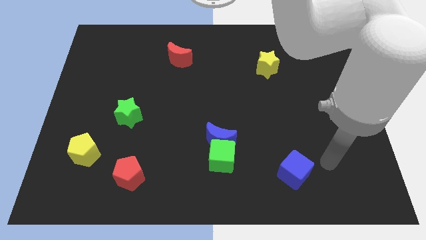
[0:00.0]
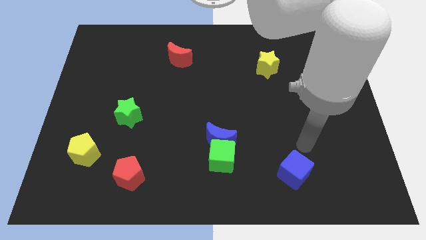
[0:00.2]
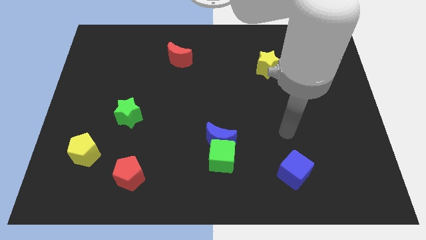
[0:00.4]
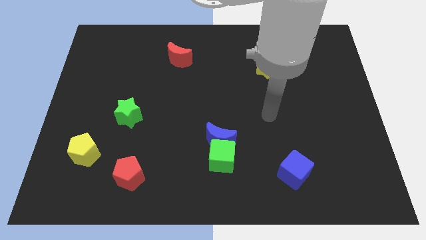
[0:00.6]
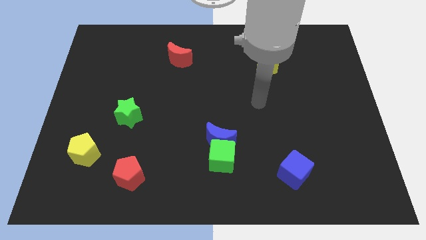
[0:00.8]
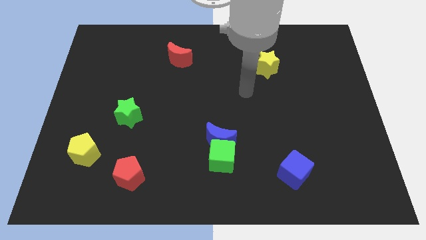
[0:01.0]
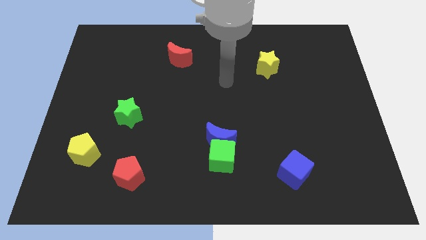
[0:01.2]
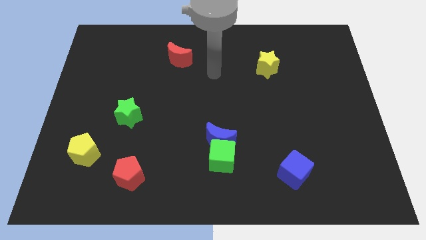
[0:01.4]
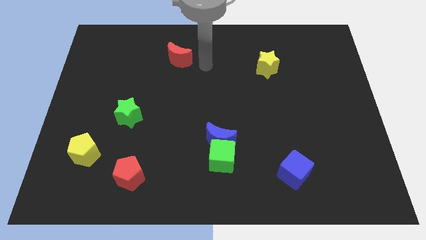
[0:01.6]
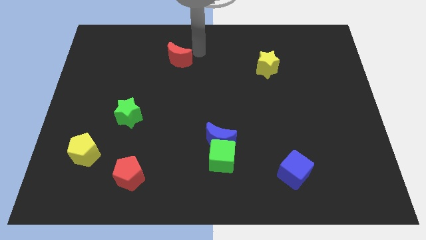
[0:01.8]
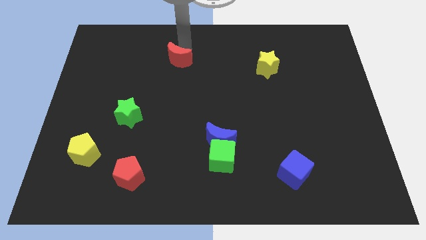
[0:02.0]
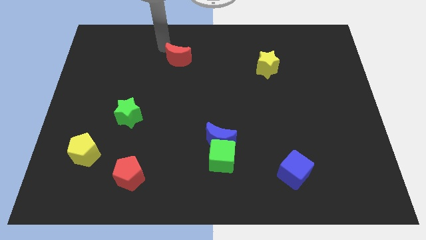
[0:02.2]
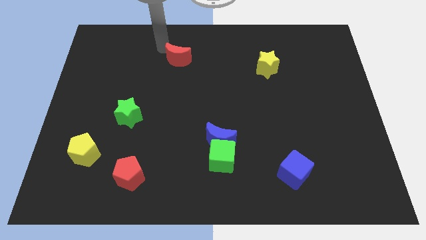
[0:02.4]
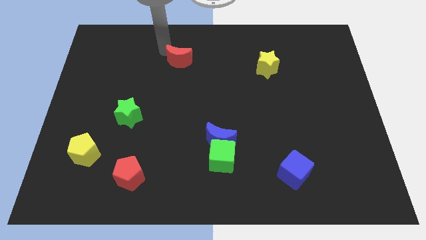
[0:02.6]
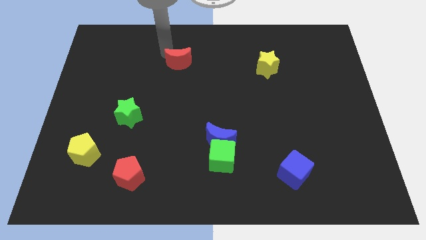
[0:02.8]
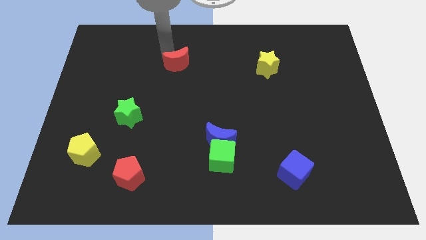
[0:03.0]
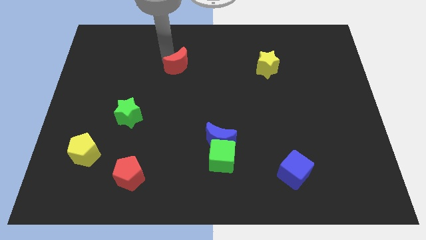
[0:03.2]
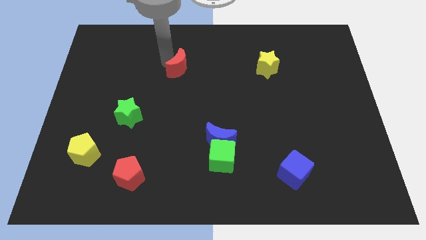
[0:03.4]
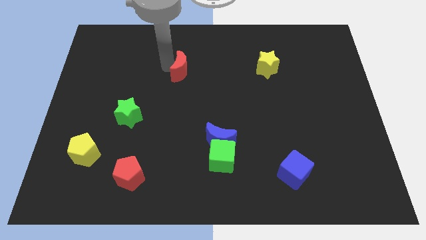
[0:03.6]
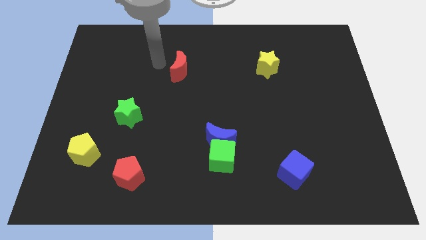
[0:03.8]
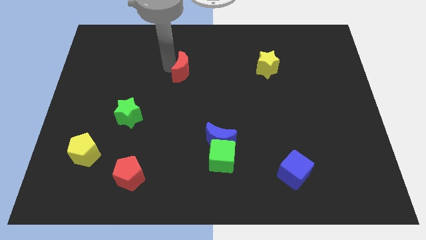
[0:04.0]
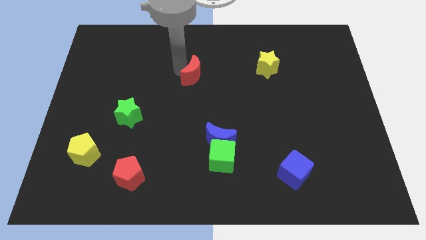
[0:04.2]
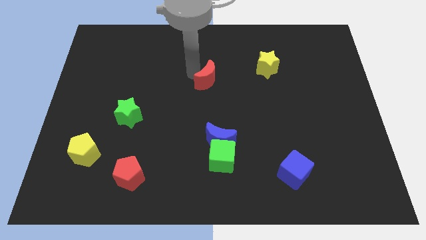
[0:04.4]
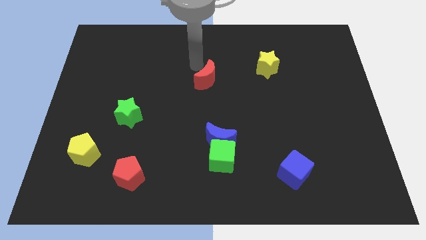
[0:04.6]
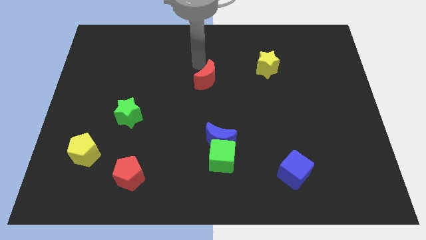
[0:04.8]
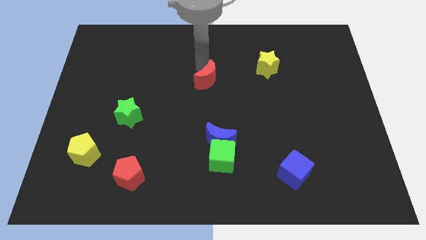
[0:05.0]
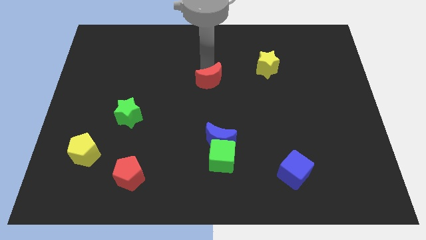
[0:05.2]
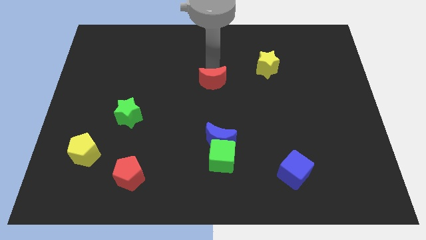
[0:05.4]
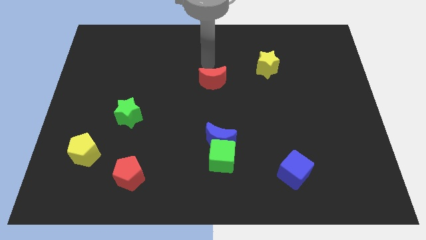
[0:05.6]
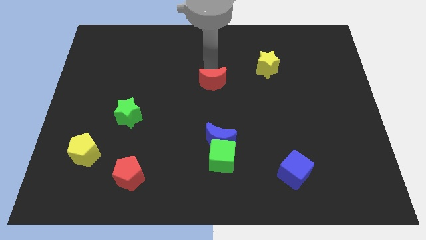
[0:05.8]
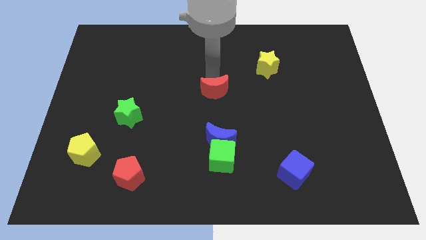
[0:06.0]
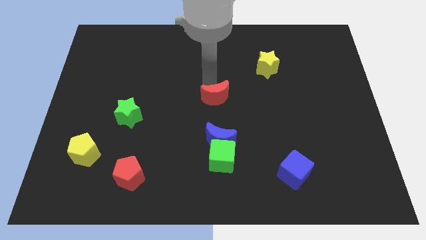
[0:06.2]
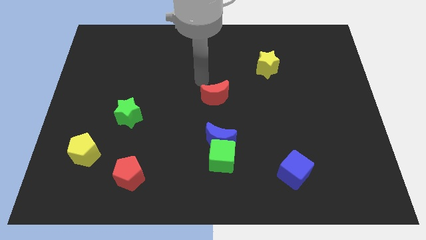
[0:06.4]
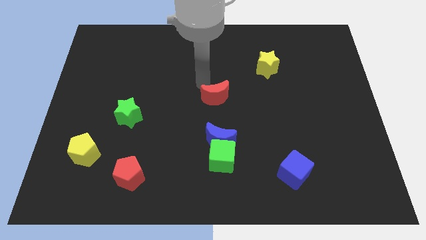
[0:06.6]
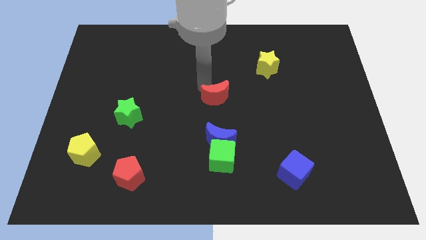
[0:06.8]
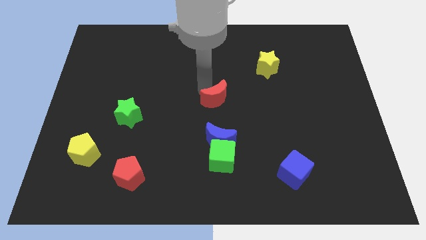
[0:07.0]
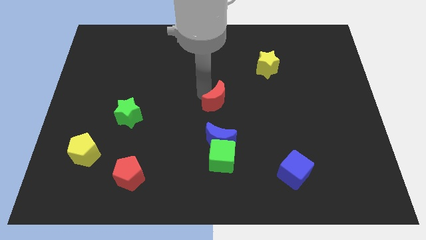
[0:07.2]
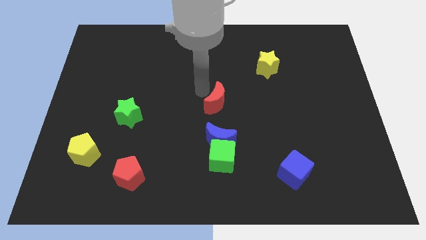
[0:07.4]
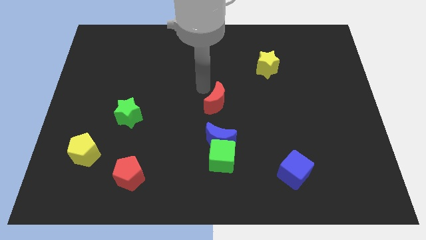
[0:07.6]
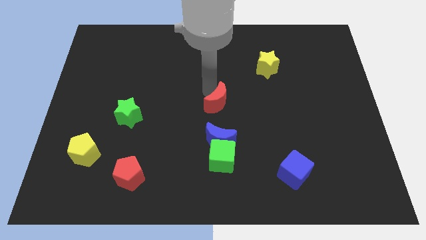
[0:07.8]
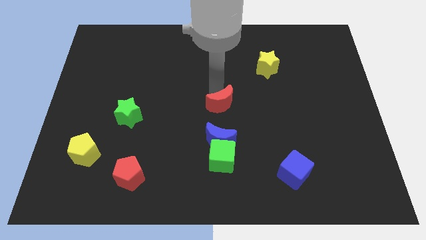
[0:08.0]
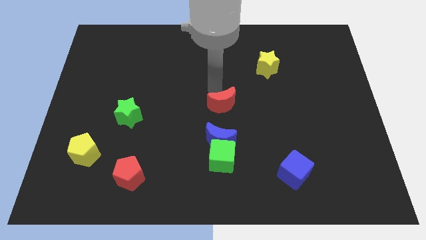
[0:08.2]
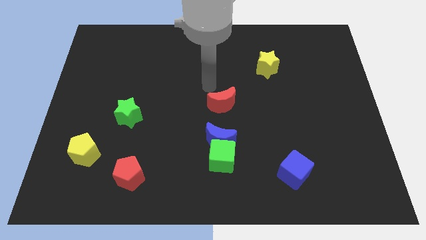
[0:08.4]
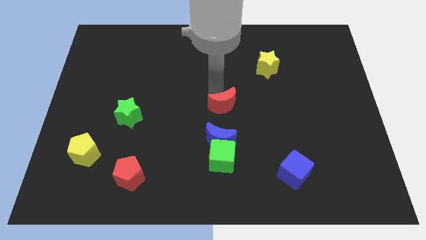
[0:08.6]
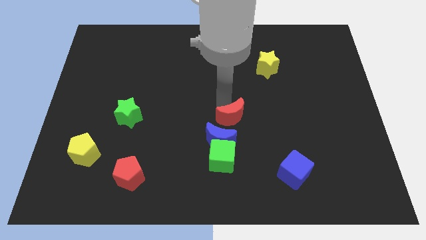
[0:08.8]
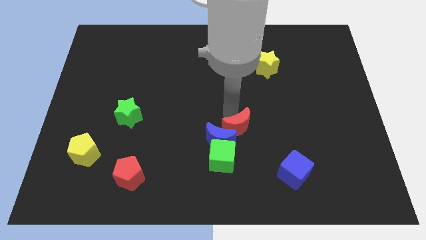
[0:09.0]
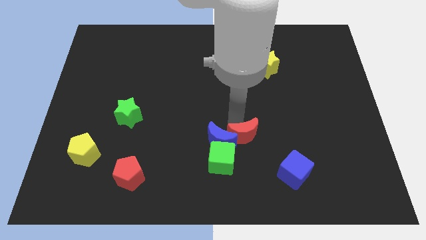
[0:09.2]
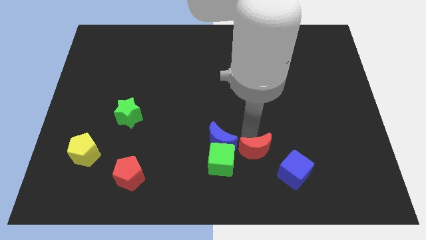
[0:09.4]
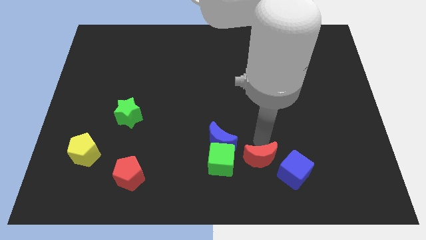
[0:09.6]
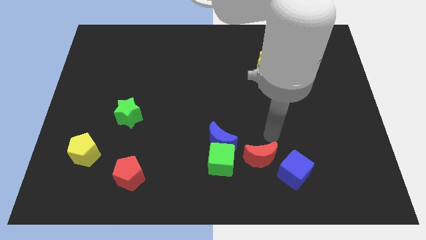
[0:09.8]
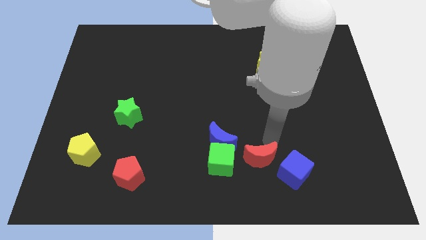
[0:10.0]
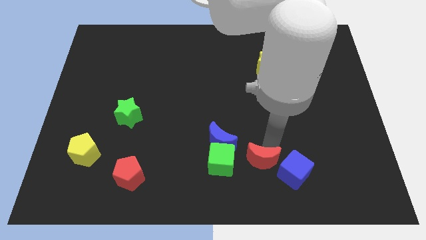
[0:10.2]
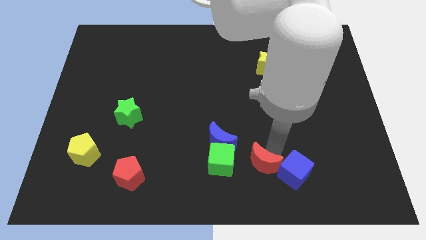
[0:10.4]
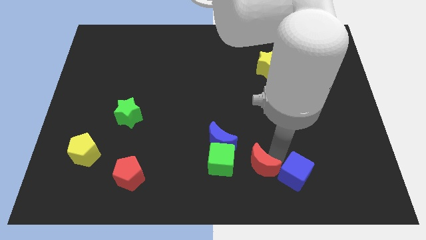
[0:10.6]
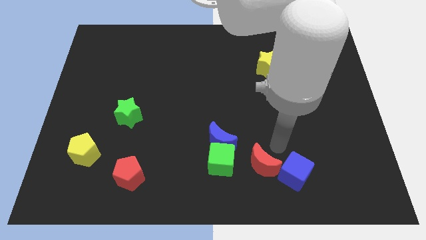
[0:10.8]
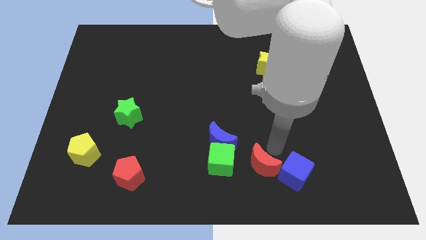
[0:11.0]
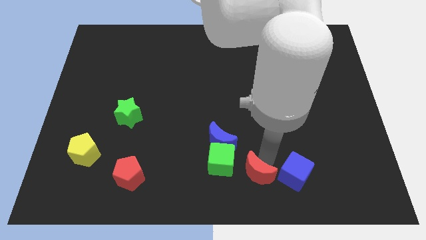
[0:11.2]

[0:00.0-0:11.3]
put the red moon to the bottom right of the green cube

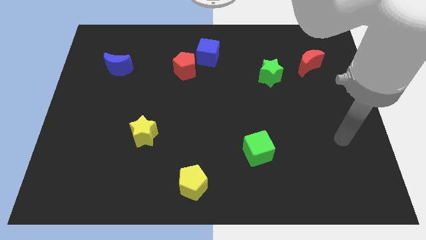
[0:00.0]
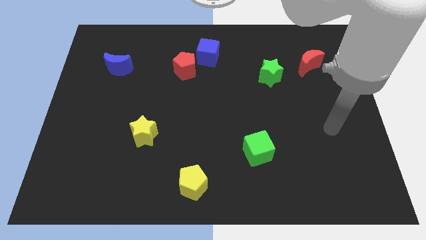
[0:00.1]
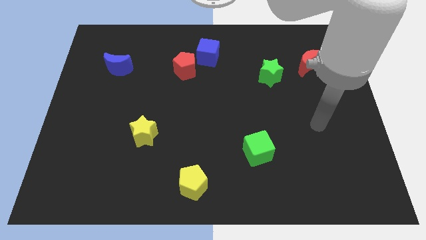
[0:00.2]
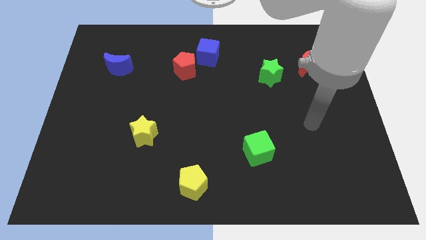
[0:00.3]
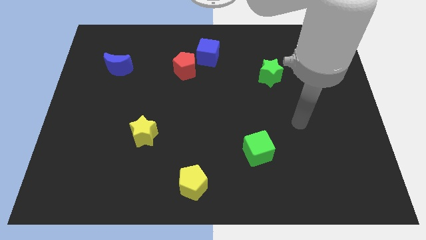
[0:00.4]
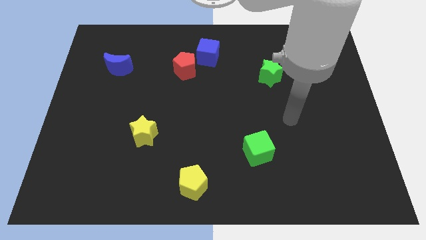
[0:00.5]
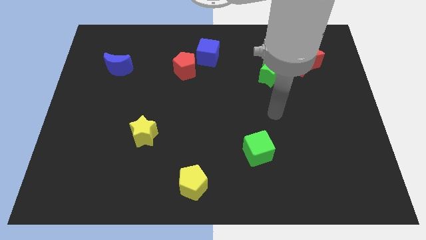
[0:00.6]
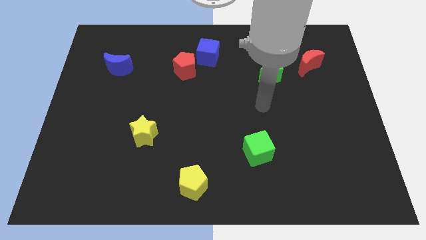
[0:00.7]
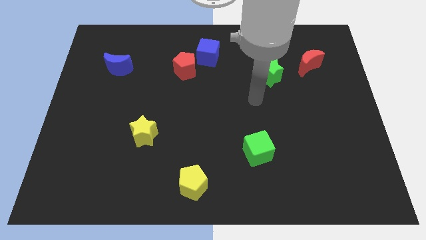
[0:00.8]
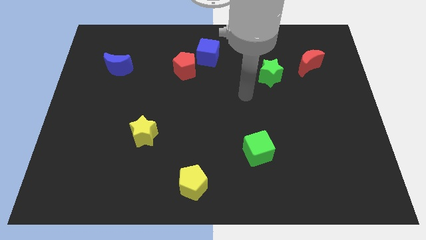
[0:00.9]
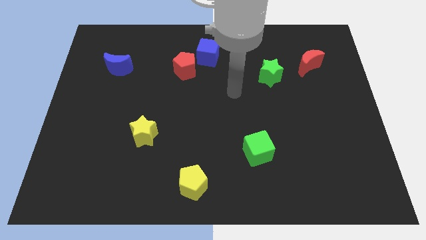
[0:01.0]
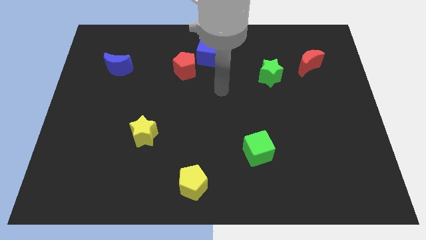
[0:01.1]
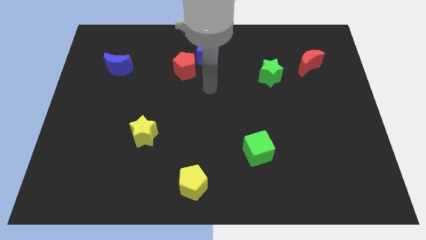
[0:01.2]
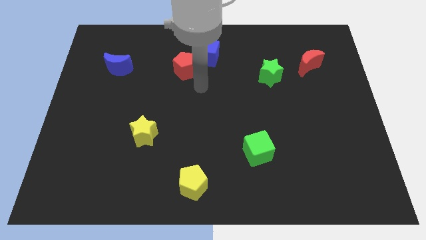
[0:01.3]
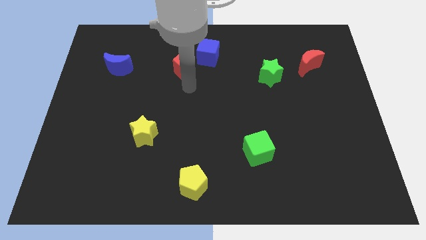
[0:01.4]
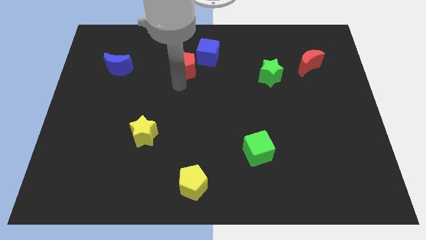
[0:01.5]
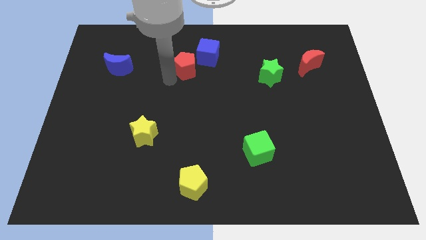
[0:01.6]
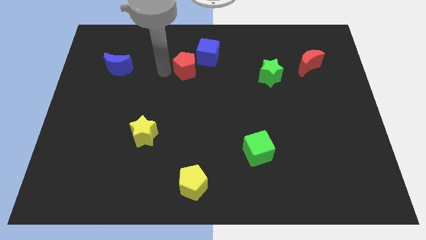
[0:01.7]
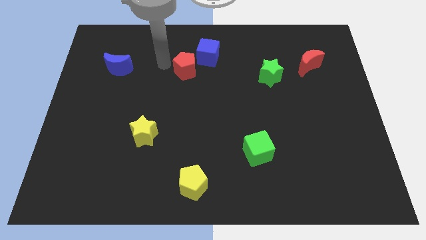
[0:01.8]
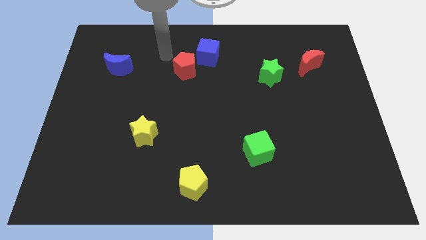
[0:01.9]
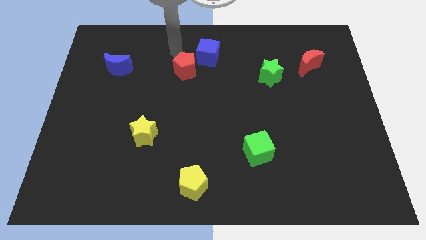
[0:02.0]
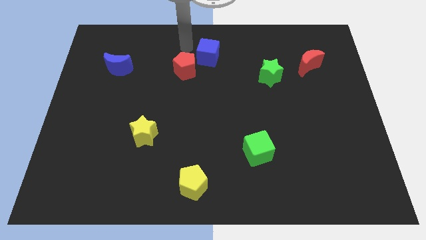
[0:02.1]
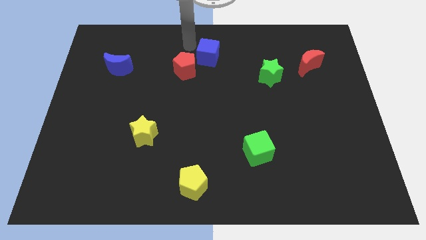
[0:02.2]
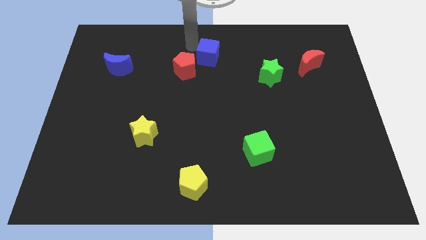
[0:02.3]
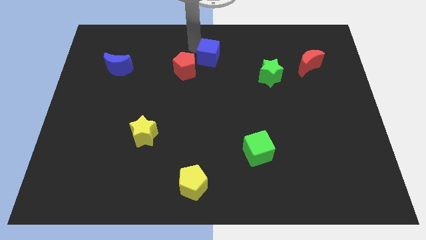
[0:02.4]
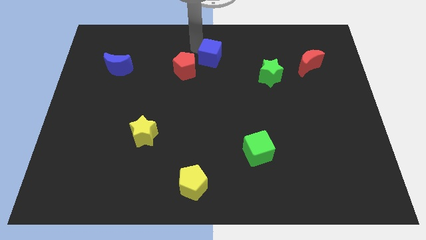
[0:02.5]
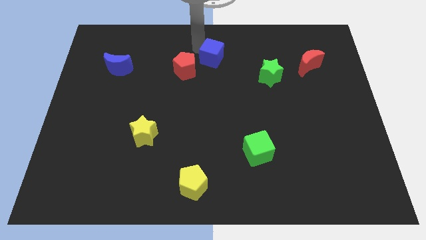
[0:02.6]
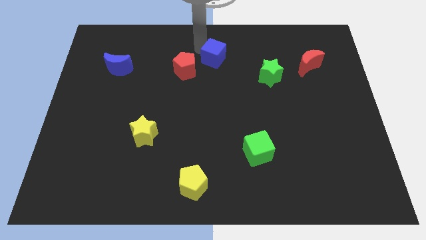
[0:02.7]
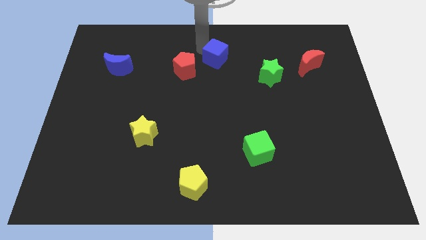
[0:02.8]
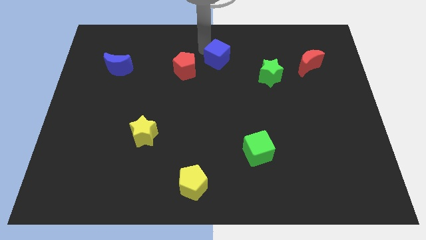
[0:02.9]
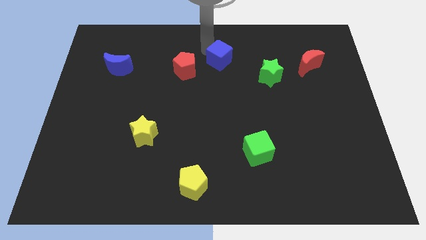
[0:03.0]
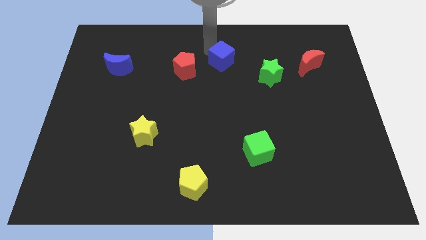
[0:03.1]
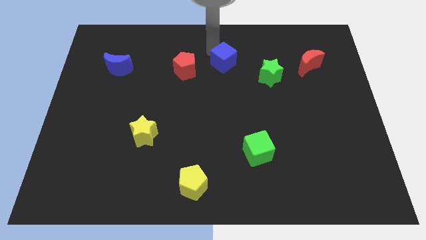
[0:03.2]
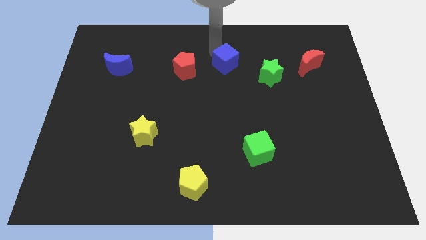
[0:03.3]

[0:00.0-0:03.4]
move the blue cube to the left side of the green star
